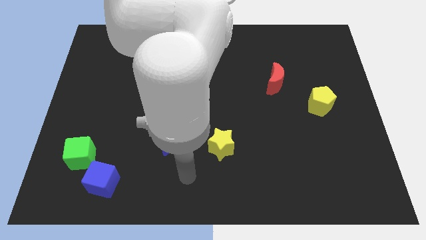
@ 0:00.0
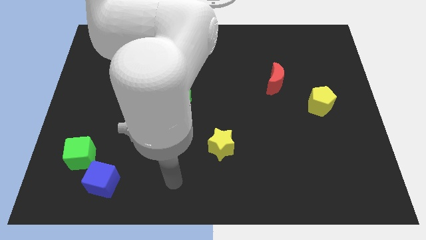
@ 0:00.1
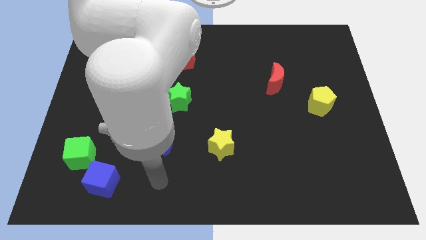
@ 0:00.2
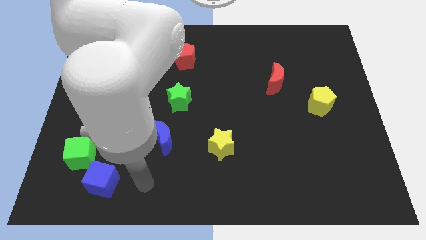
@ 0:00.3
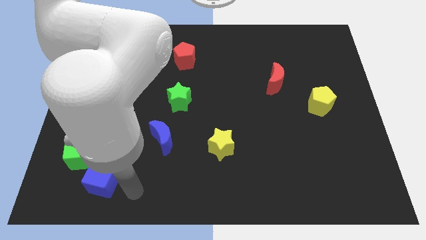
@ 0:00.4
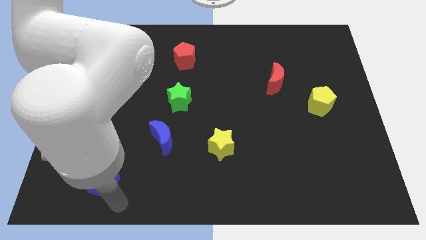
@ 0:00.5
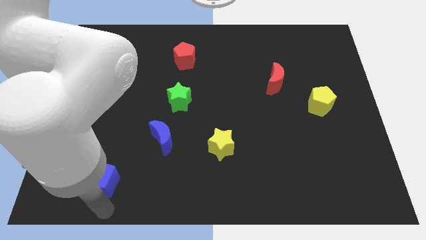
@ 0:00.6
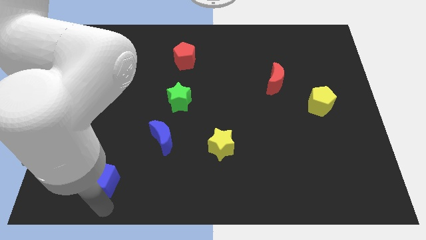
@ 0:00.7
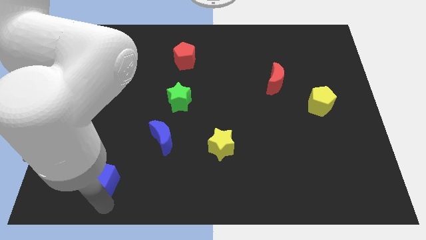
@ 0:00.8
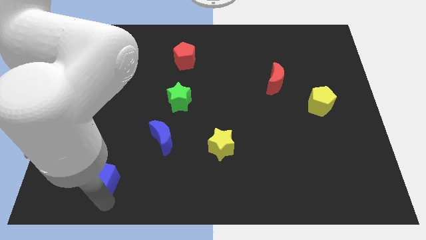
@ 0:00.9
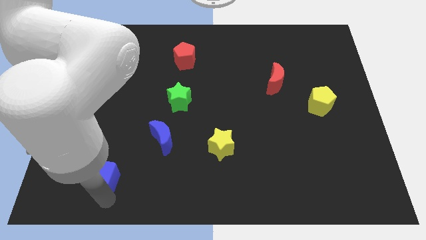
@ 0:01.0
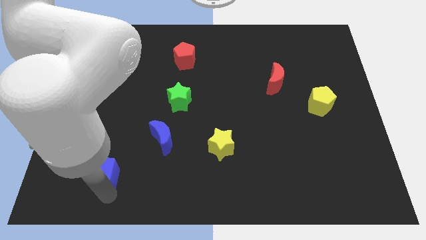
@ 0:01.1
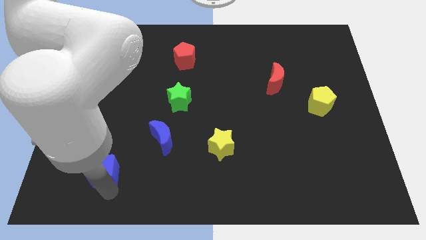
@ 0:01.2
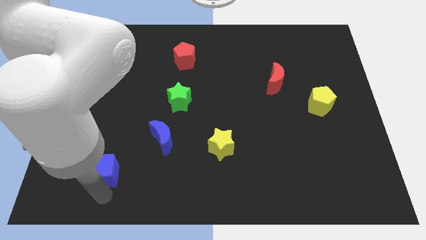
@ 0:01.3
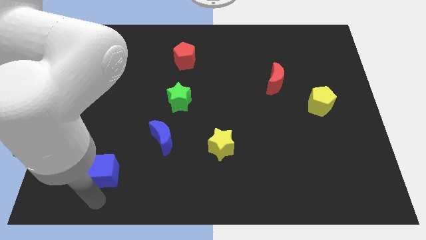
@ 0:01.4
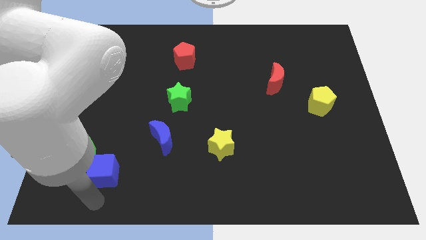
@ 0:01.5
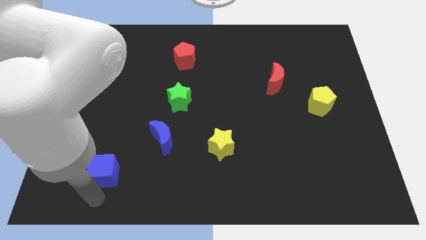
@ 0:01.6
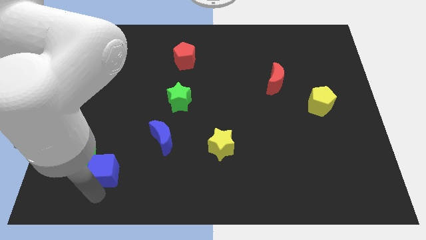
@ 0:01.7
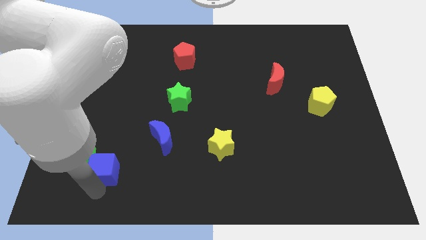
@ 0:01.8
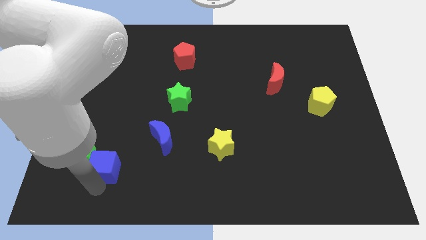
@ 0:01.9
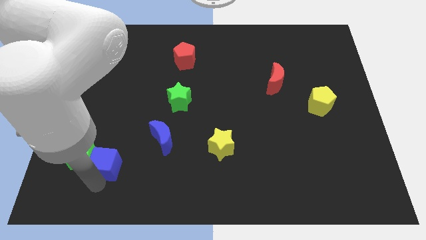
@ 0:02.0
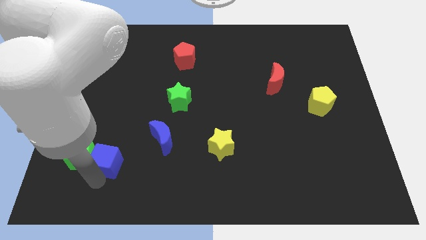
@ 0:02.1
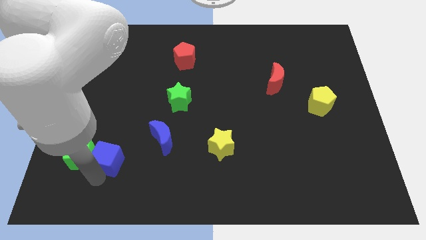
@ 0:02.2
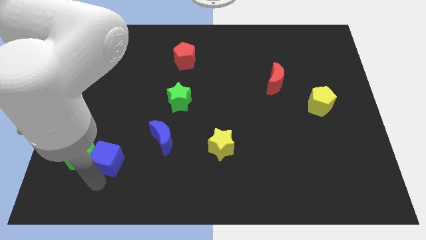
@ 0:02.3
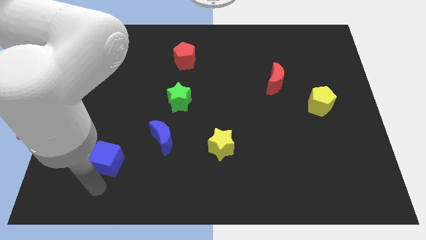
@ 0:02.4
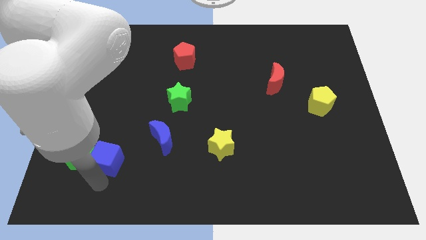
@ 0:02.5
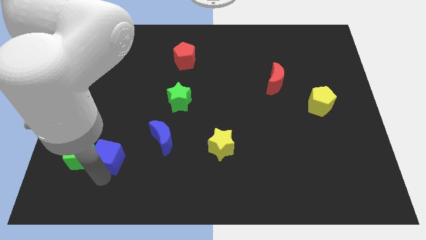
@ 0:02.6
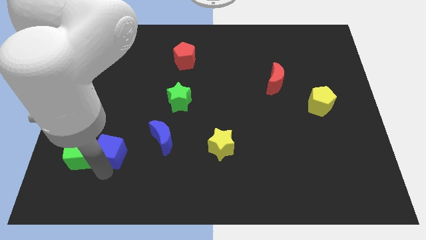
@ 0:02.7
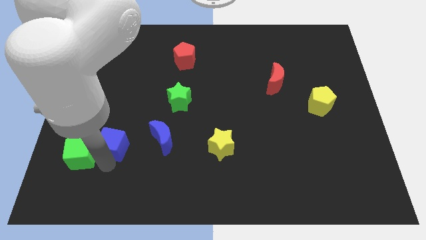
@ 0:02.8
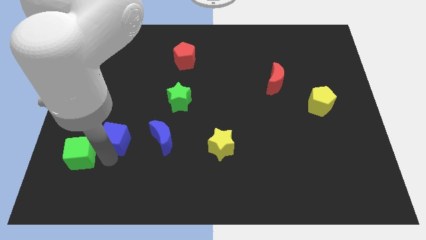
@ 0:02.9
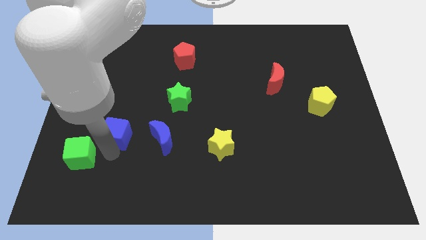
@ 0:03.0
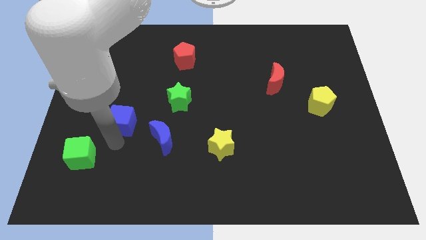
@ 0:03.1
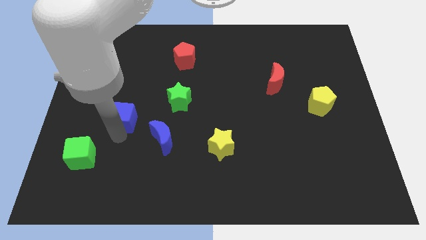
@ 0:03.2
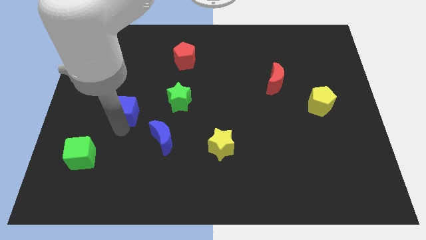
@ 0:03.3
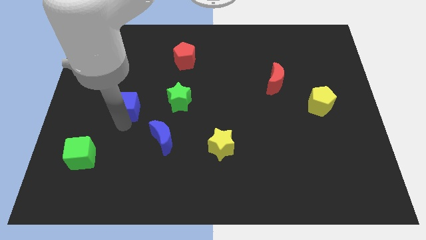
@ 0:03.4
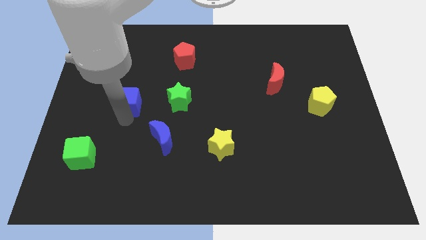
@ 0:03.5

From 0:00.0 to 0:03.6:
move the blue cube upwards

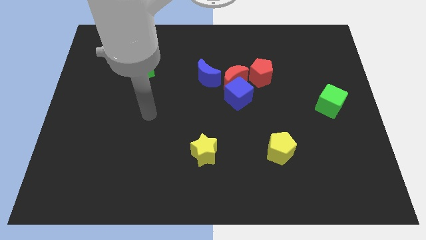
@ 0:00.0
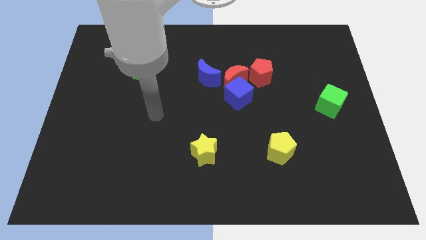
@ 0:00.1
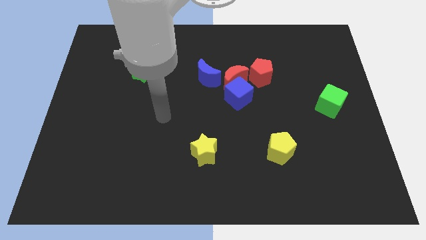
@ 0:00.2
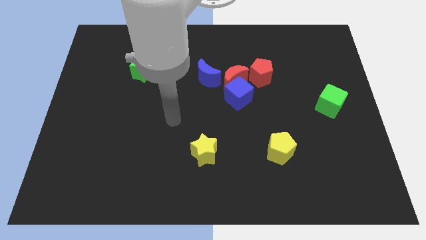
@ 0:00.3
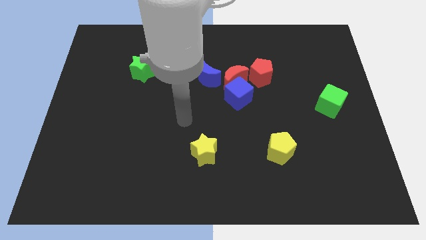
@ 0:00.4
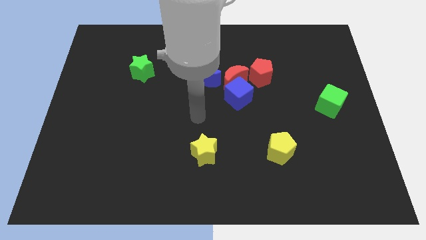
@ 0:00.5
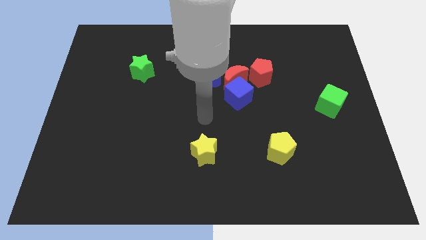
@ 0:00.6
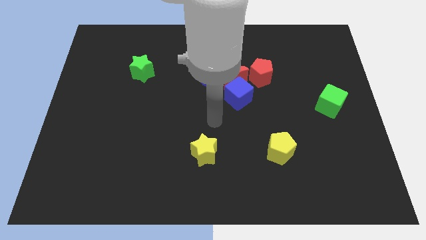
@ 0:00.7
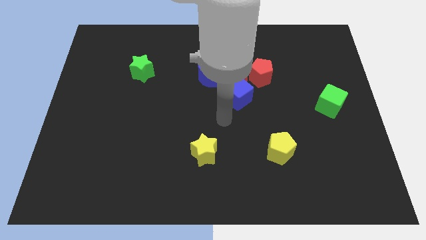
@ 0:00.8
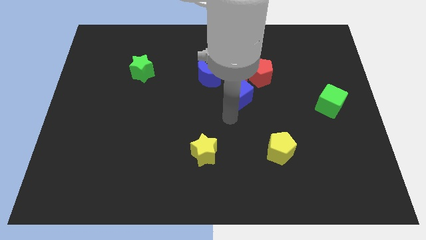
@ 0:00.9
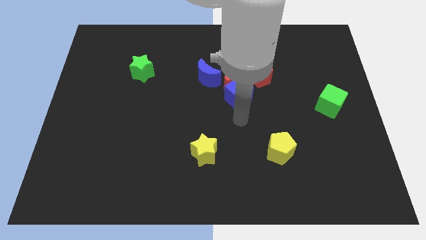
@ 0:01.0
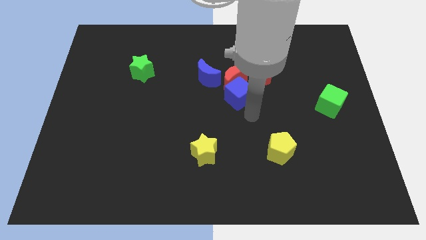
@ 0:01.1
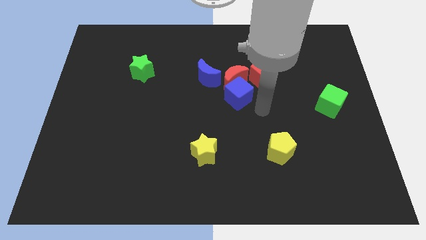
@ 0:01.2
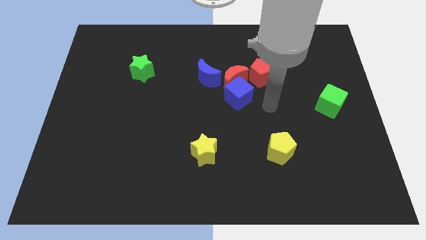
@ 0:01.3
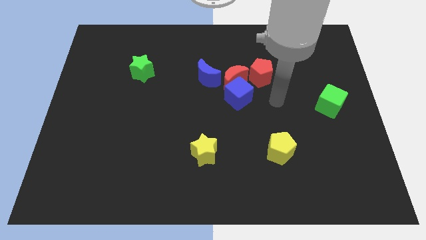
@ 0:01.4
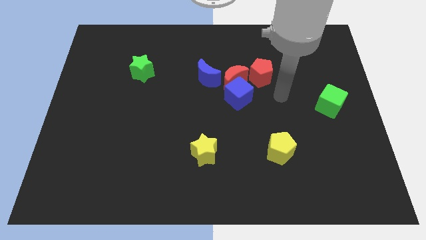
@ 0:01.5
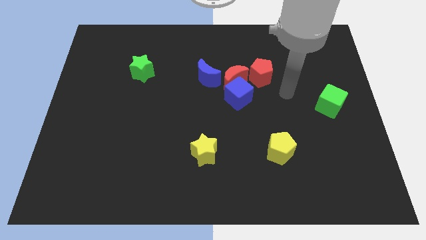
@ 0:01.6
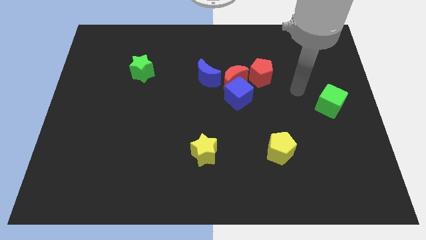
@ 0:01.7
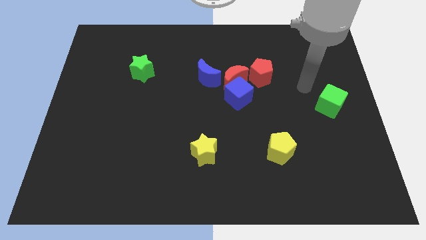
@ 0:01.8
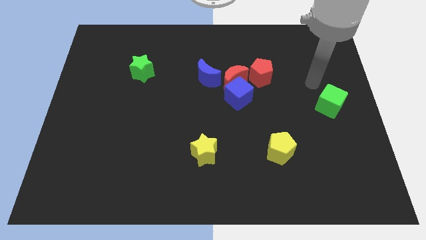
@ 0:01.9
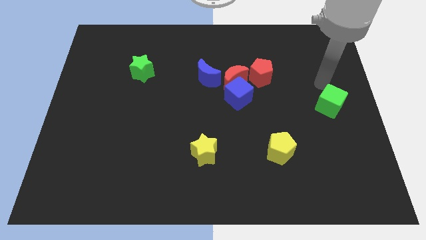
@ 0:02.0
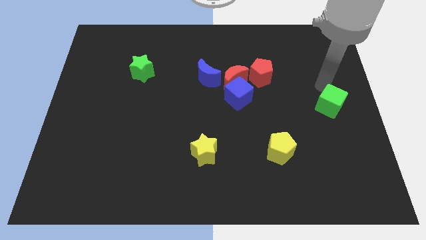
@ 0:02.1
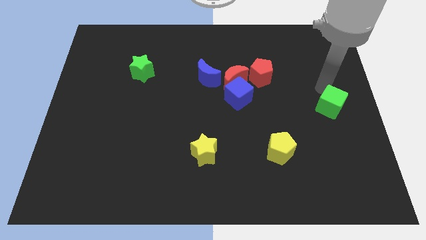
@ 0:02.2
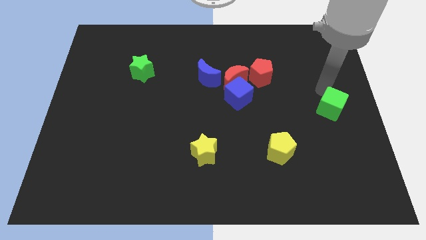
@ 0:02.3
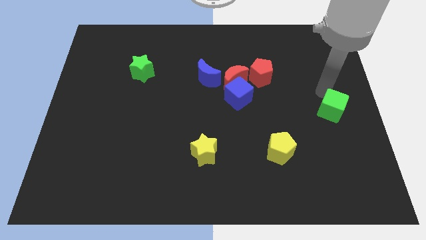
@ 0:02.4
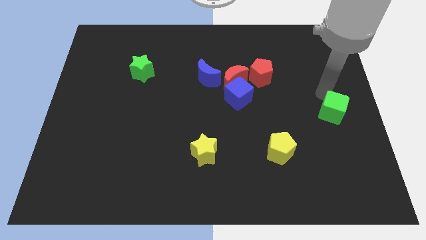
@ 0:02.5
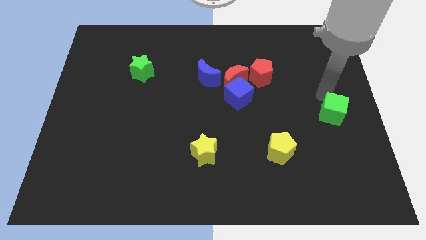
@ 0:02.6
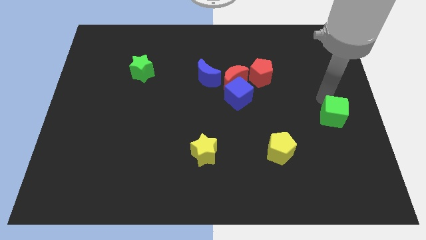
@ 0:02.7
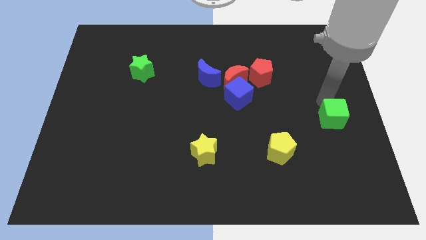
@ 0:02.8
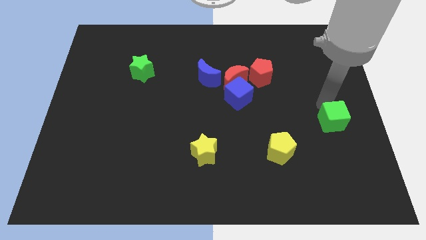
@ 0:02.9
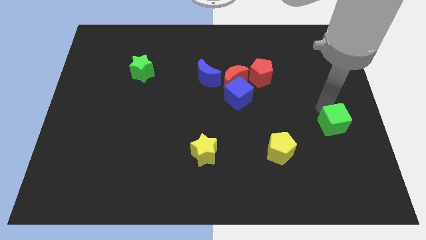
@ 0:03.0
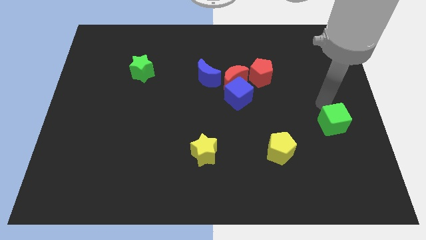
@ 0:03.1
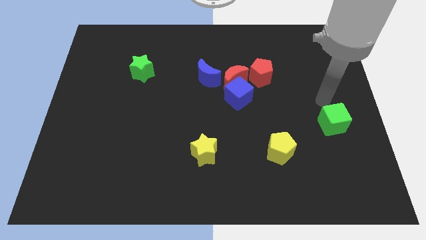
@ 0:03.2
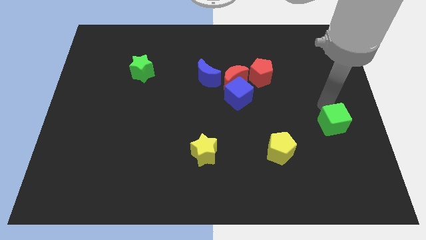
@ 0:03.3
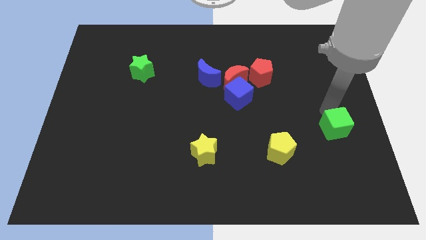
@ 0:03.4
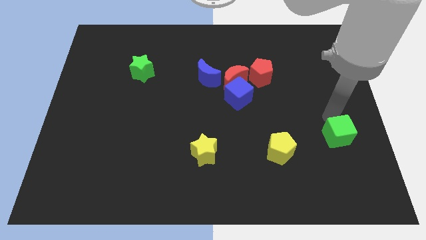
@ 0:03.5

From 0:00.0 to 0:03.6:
move the green cube down somewhat

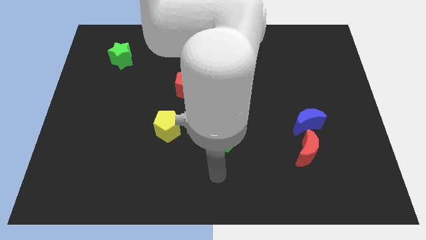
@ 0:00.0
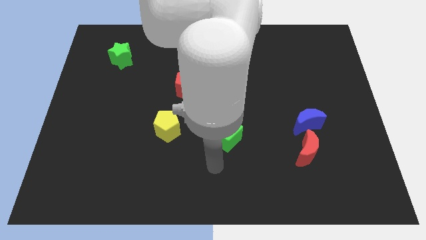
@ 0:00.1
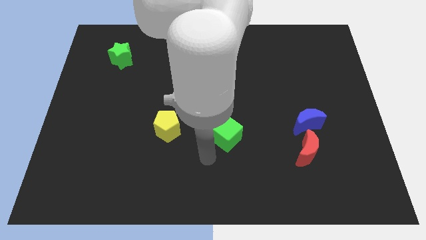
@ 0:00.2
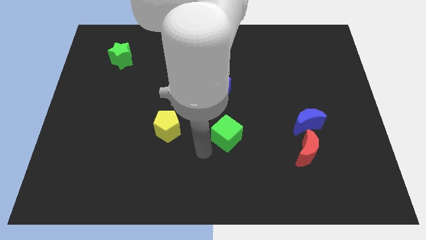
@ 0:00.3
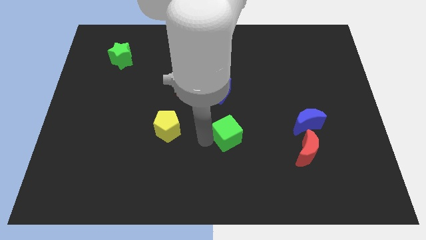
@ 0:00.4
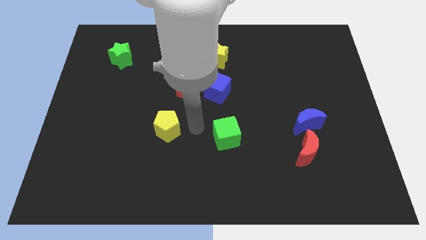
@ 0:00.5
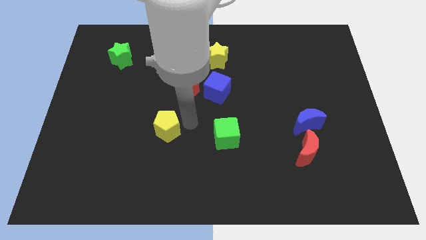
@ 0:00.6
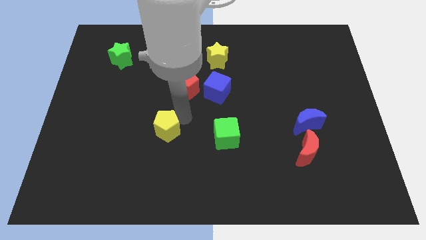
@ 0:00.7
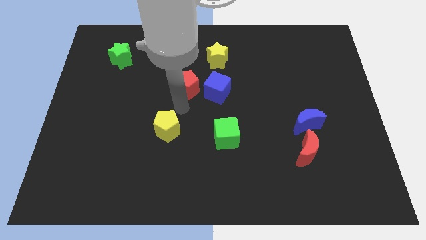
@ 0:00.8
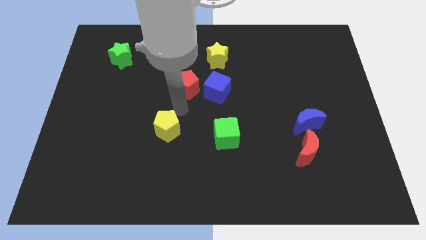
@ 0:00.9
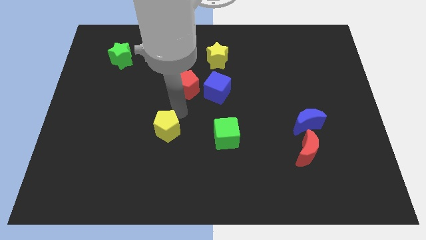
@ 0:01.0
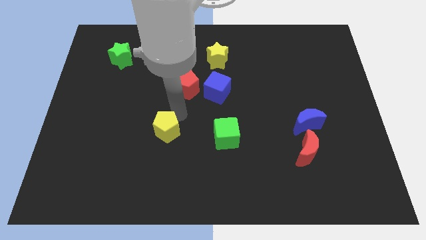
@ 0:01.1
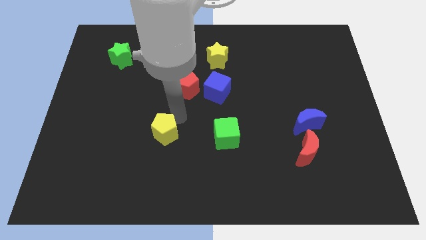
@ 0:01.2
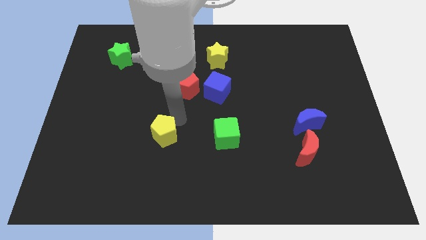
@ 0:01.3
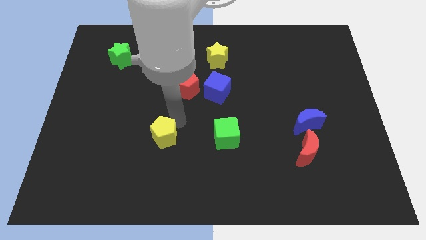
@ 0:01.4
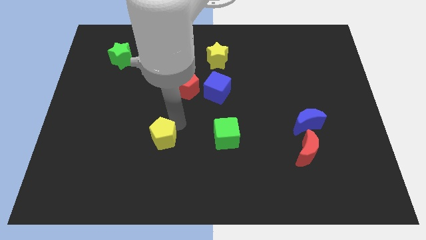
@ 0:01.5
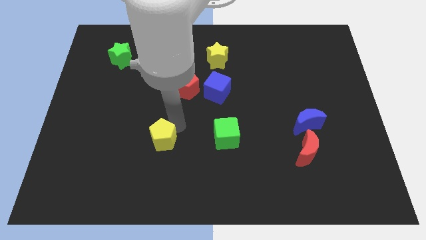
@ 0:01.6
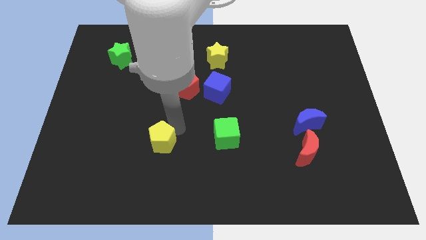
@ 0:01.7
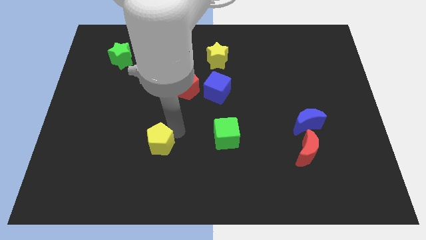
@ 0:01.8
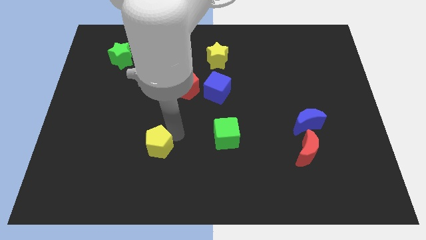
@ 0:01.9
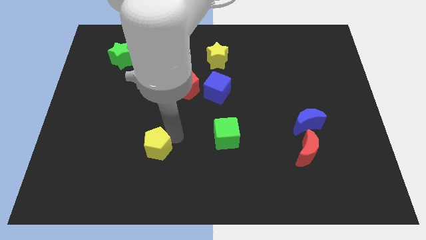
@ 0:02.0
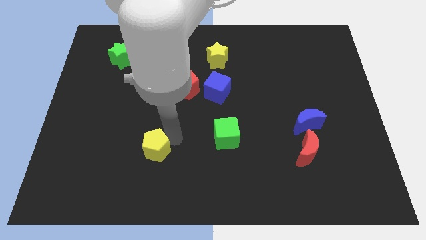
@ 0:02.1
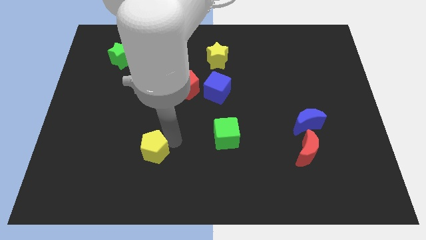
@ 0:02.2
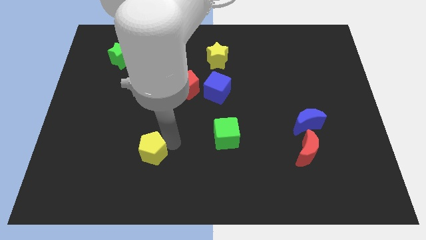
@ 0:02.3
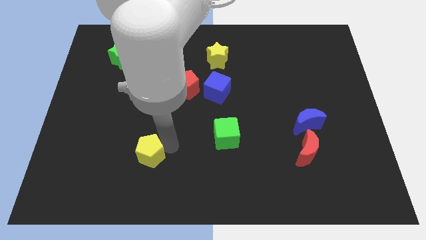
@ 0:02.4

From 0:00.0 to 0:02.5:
slide the yellow pentagon a little diagonally downwards and to the left
